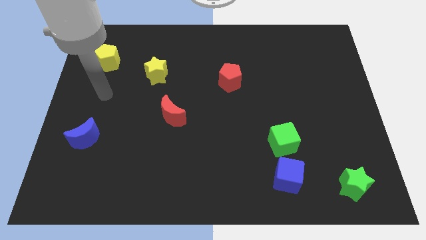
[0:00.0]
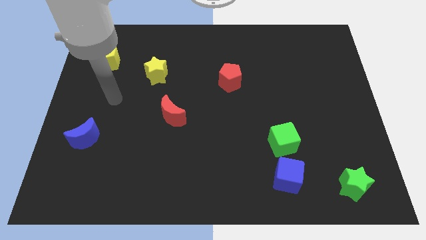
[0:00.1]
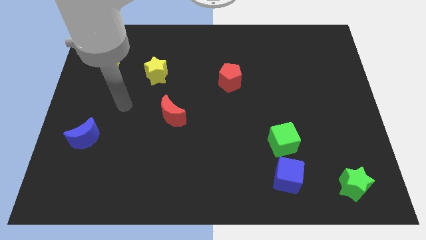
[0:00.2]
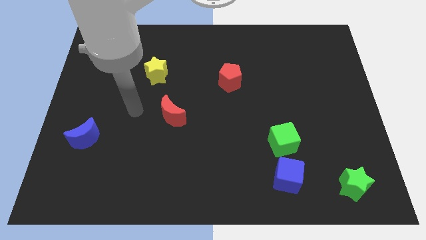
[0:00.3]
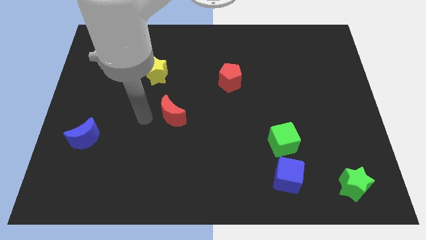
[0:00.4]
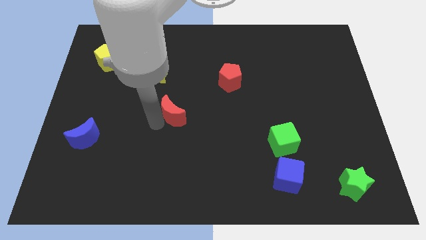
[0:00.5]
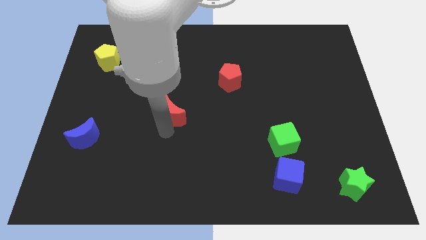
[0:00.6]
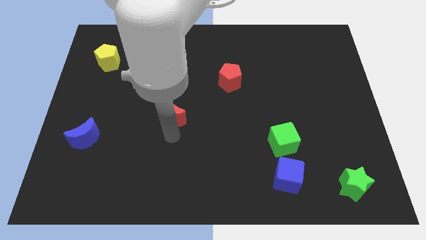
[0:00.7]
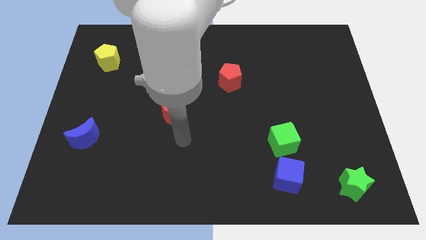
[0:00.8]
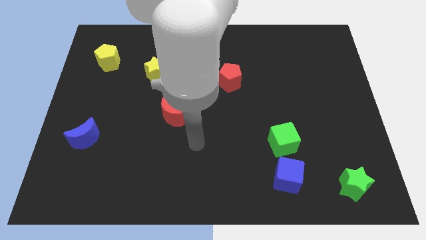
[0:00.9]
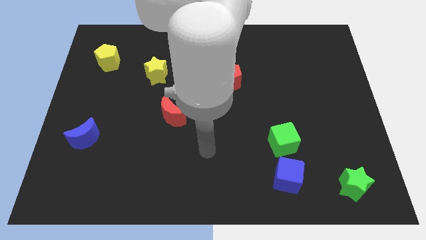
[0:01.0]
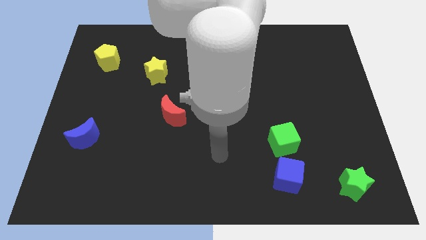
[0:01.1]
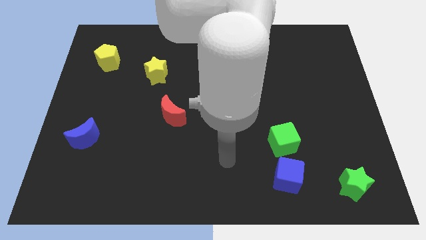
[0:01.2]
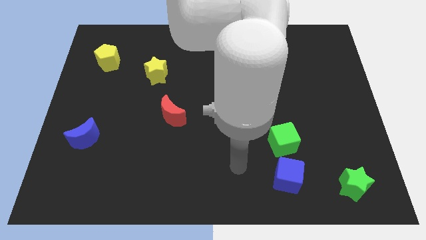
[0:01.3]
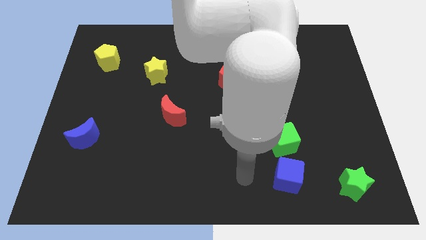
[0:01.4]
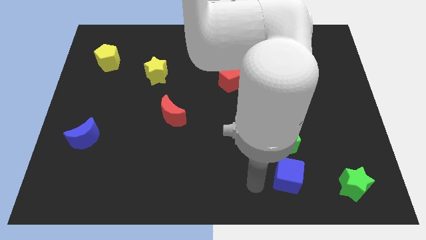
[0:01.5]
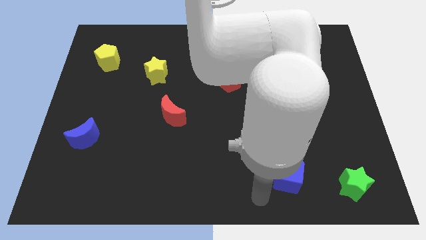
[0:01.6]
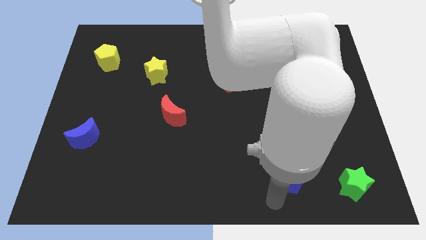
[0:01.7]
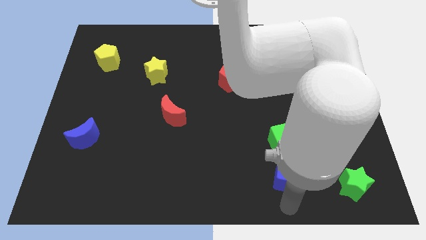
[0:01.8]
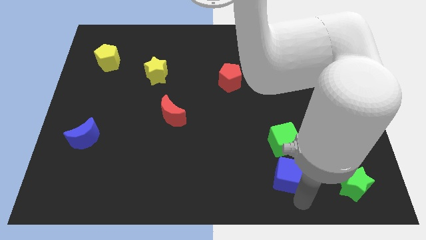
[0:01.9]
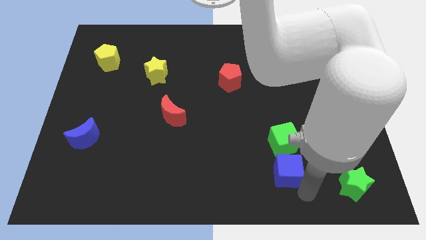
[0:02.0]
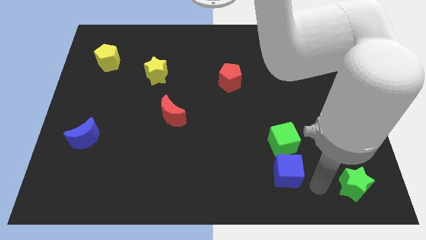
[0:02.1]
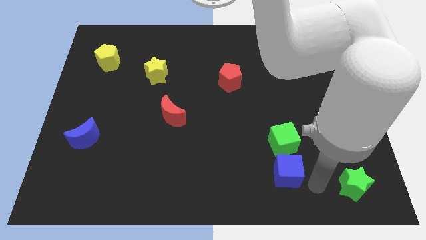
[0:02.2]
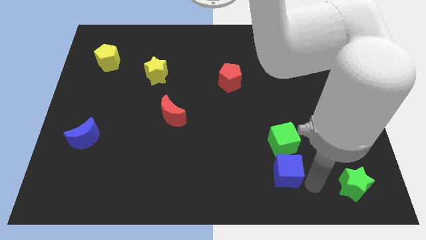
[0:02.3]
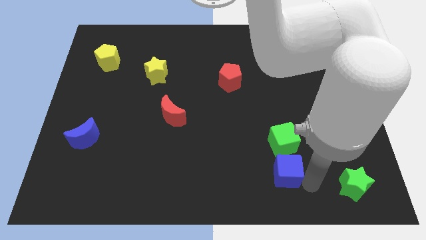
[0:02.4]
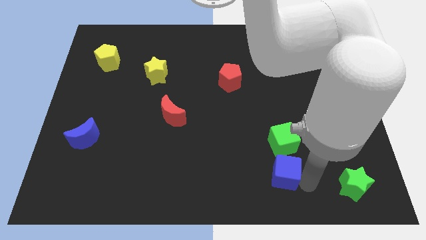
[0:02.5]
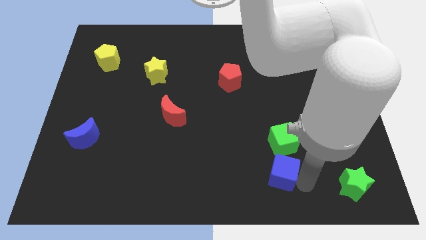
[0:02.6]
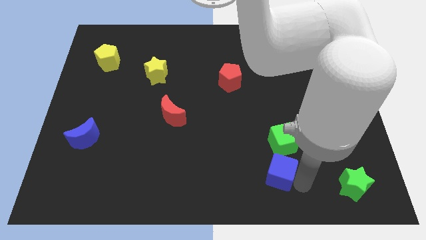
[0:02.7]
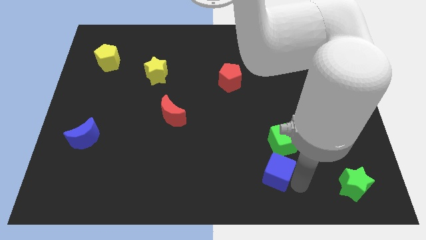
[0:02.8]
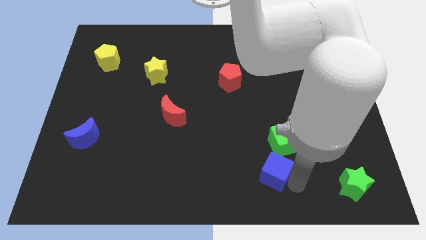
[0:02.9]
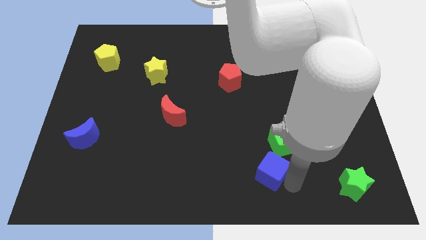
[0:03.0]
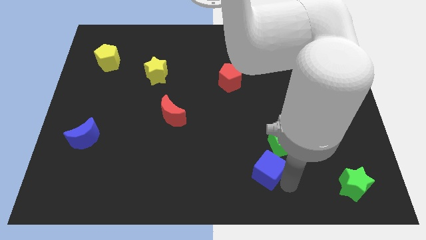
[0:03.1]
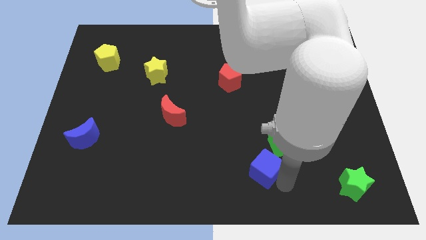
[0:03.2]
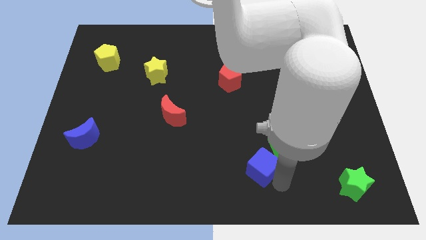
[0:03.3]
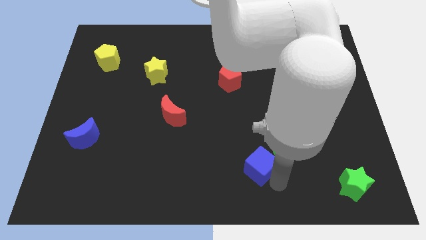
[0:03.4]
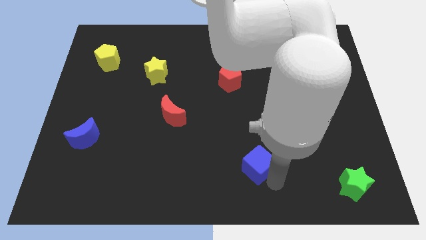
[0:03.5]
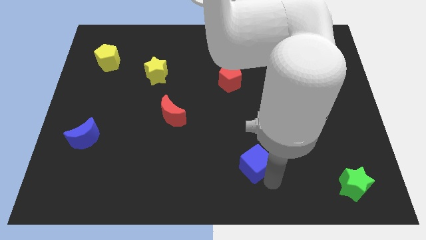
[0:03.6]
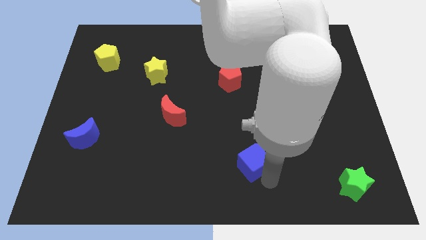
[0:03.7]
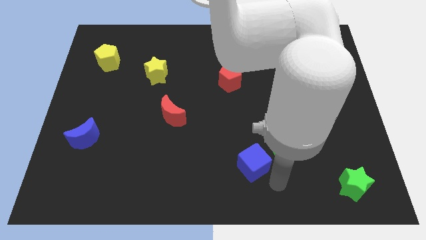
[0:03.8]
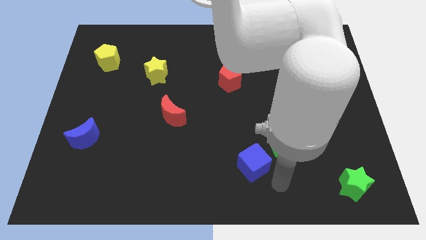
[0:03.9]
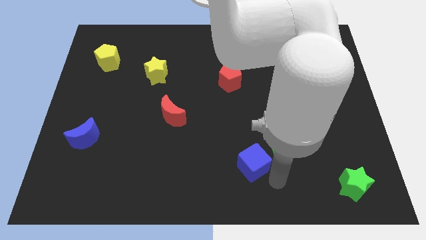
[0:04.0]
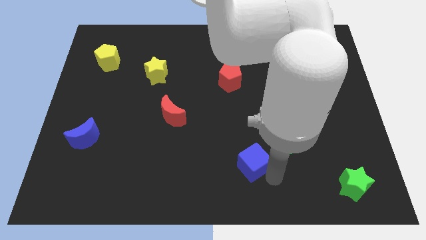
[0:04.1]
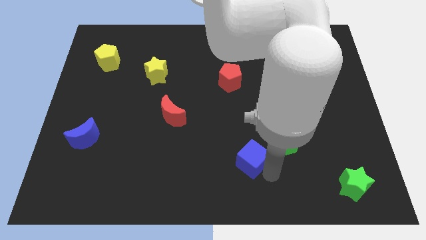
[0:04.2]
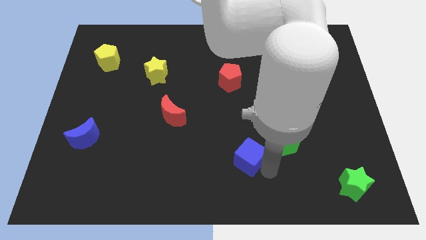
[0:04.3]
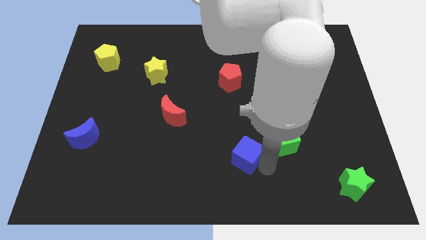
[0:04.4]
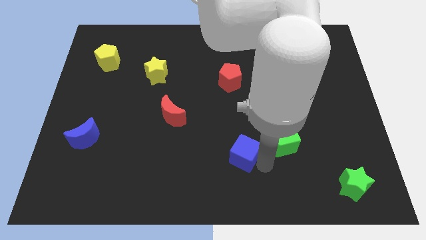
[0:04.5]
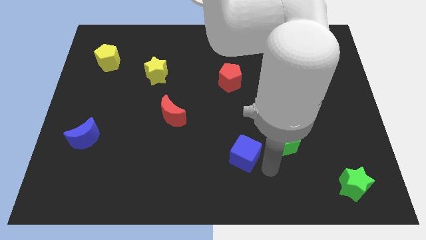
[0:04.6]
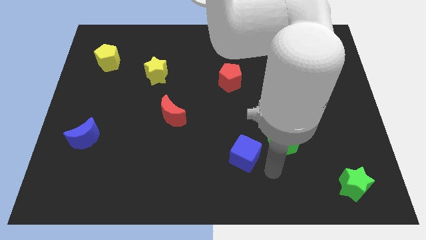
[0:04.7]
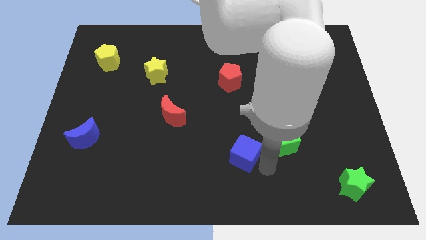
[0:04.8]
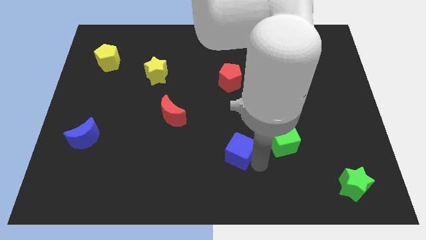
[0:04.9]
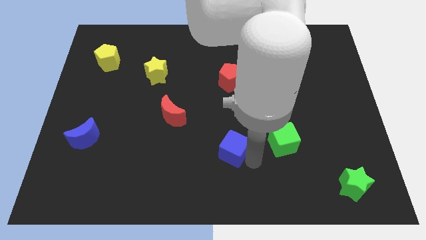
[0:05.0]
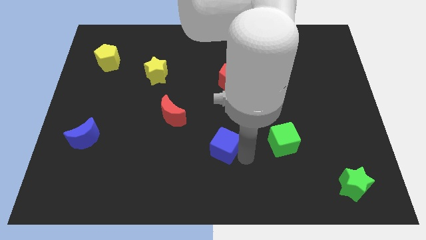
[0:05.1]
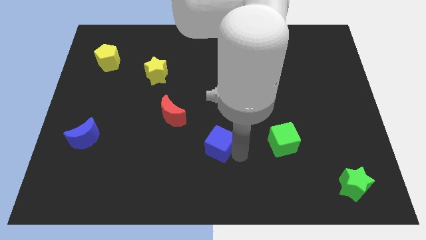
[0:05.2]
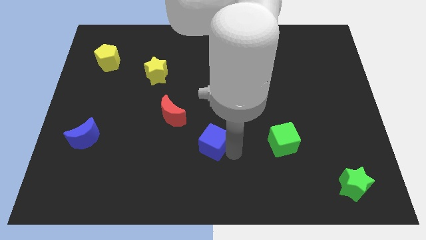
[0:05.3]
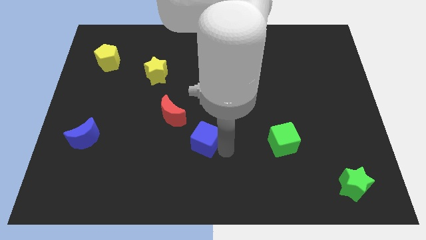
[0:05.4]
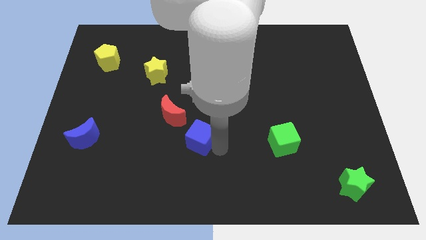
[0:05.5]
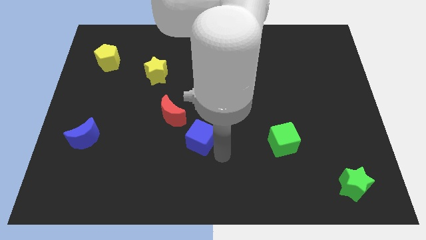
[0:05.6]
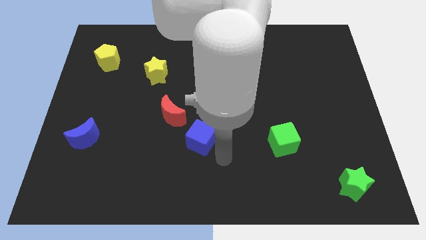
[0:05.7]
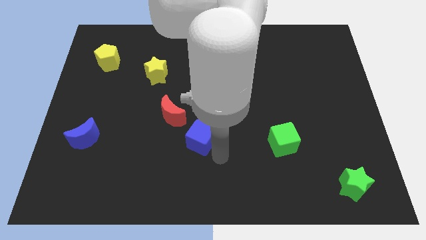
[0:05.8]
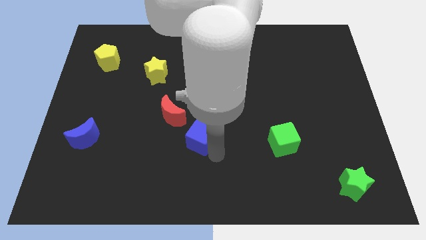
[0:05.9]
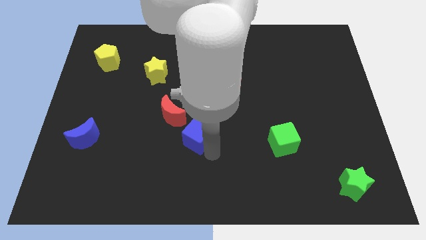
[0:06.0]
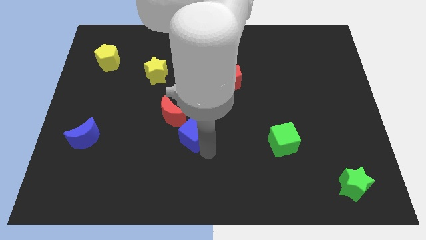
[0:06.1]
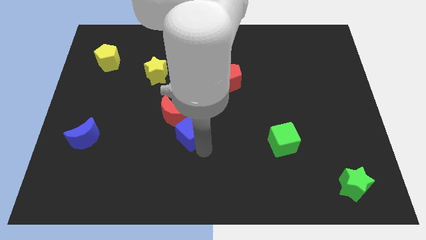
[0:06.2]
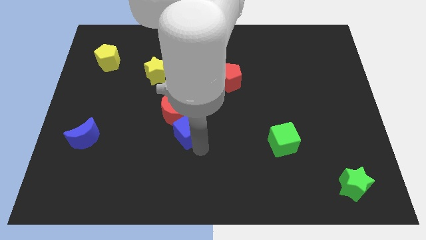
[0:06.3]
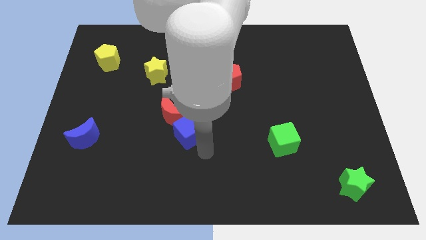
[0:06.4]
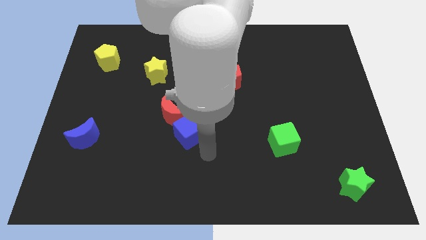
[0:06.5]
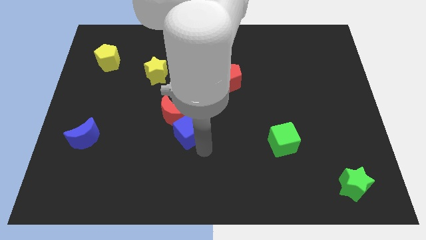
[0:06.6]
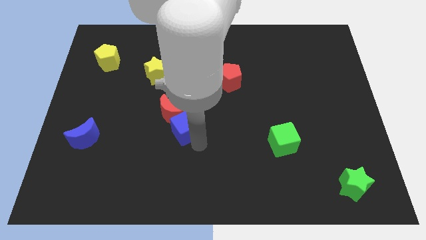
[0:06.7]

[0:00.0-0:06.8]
slide the blue cube towards the red moon

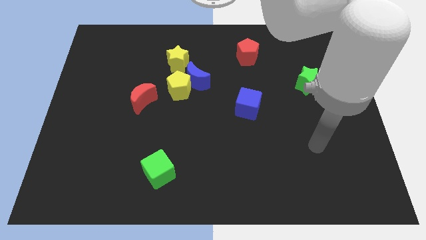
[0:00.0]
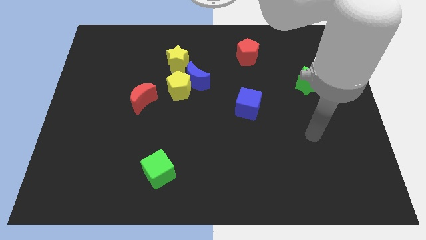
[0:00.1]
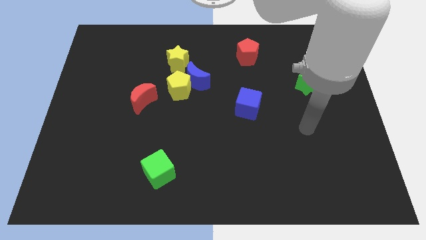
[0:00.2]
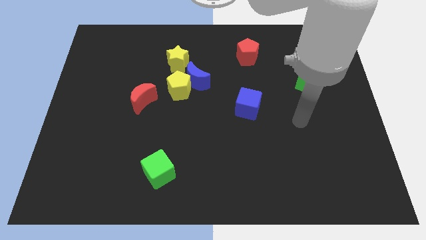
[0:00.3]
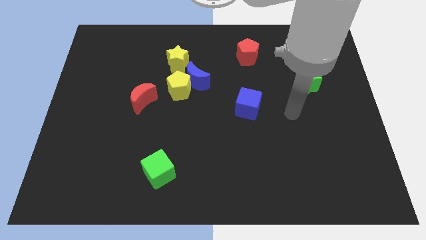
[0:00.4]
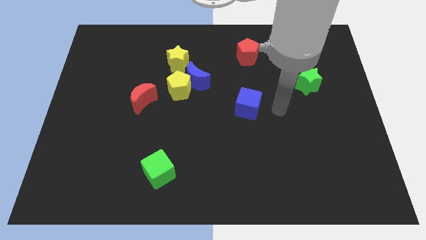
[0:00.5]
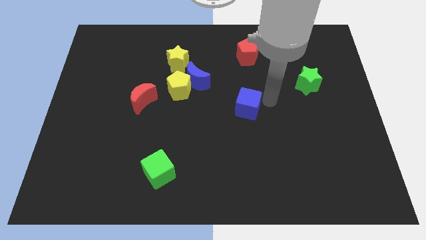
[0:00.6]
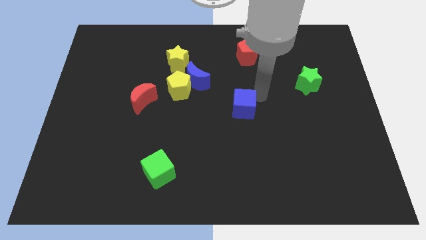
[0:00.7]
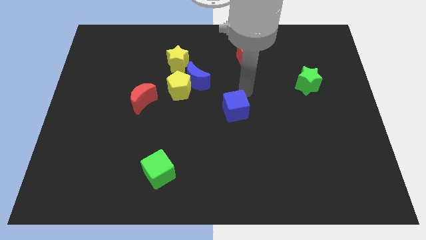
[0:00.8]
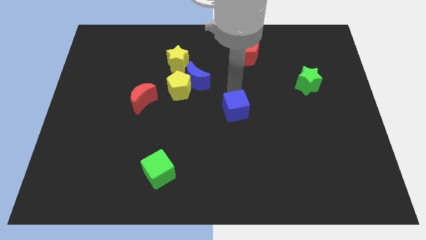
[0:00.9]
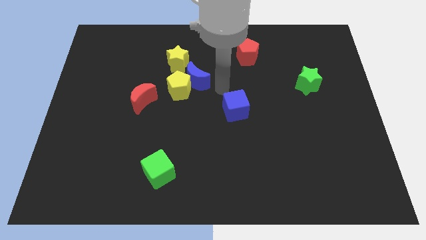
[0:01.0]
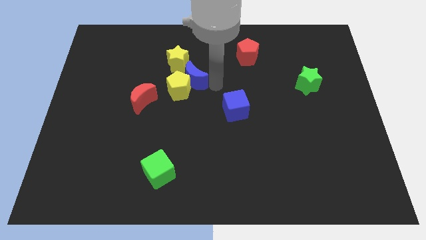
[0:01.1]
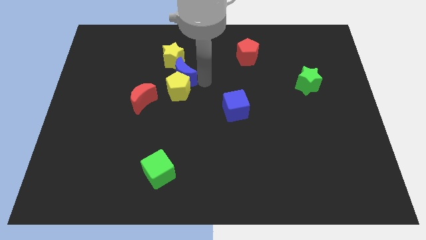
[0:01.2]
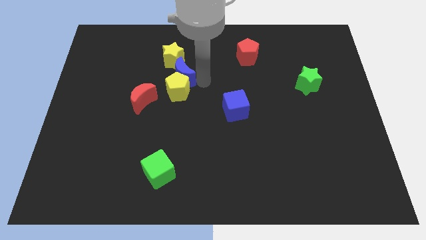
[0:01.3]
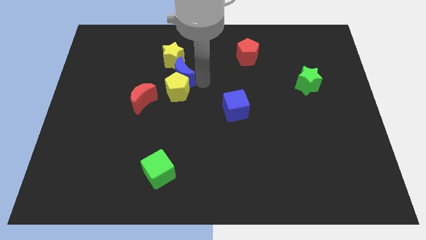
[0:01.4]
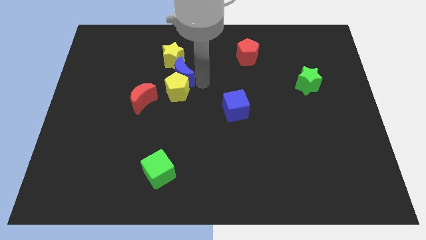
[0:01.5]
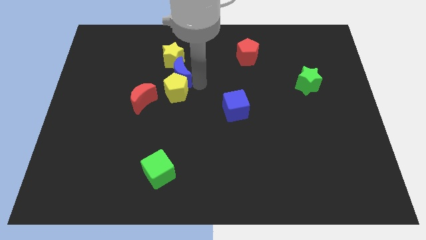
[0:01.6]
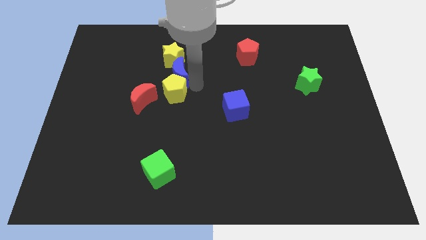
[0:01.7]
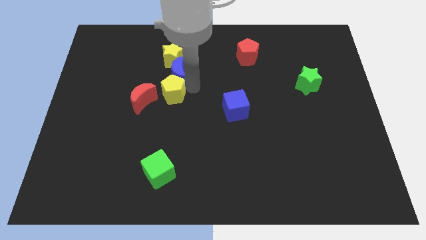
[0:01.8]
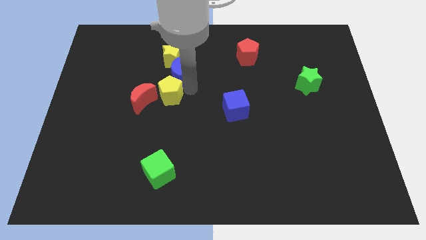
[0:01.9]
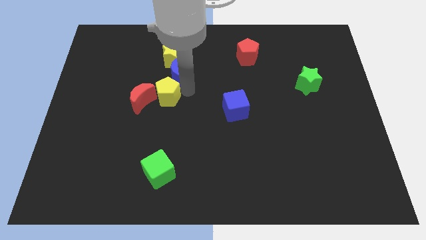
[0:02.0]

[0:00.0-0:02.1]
slide the yellow pentagon towards the red moon
